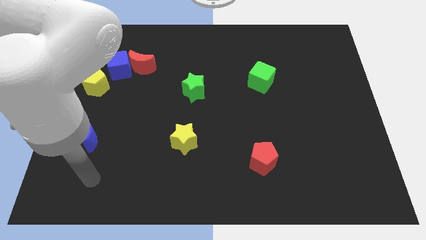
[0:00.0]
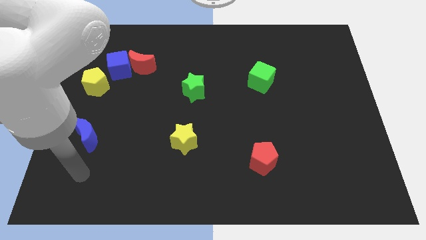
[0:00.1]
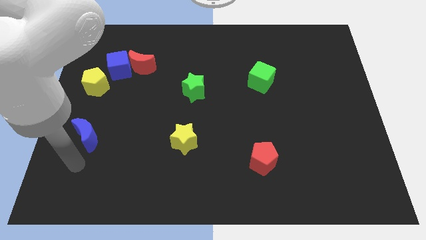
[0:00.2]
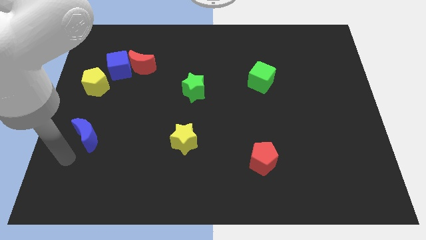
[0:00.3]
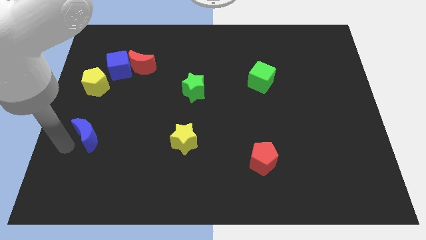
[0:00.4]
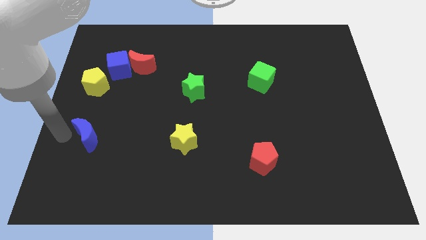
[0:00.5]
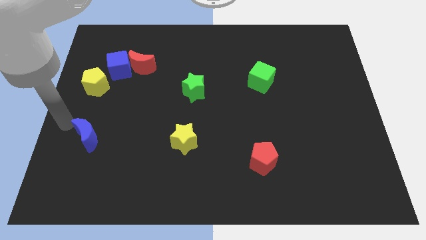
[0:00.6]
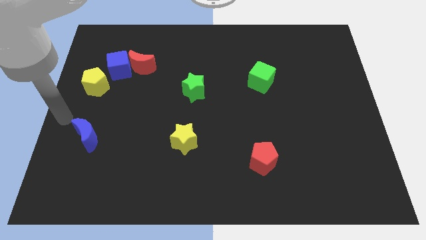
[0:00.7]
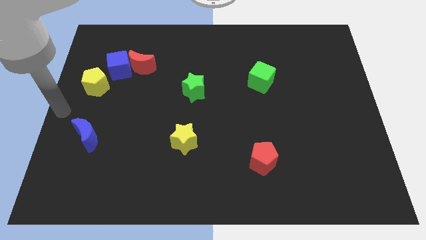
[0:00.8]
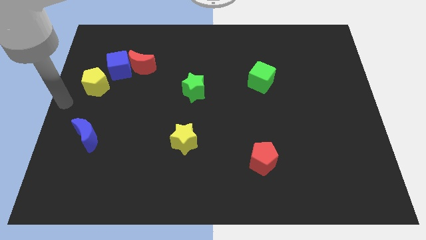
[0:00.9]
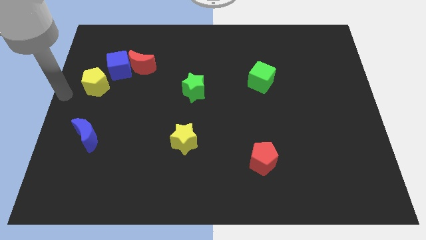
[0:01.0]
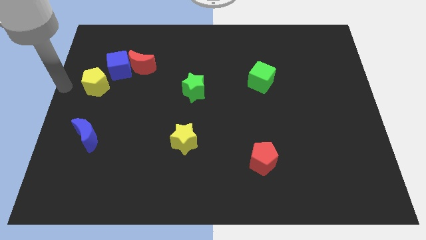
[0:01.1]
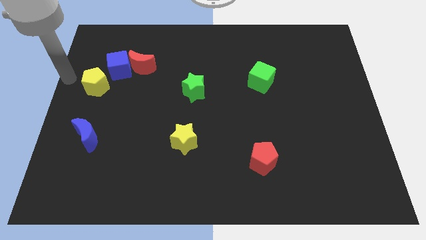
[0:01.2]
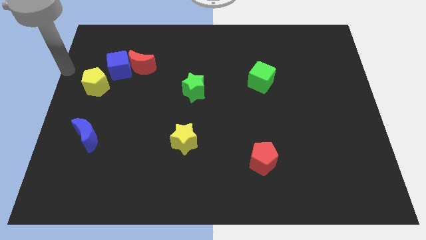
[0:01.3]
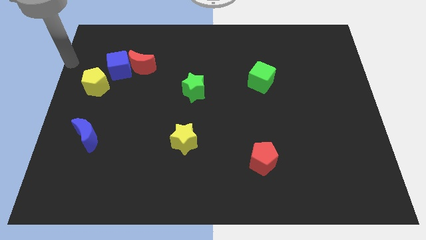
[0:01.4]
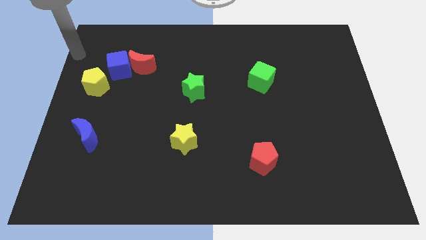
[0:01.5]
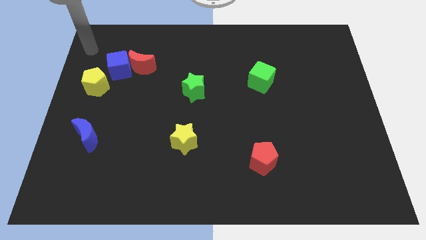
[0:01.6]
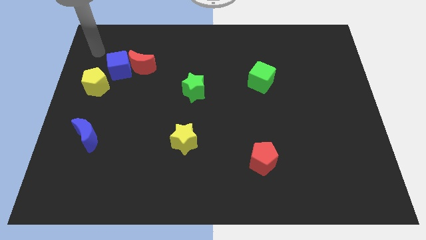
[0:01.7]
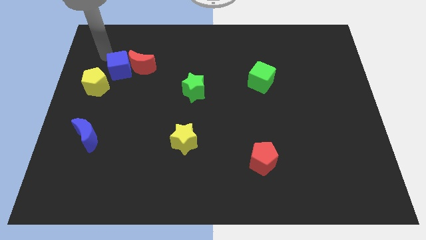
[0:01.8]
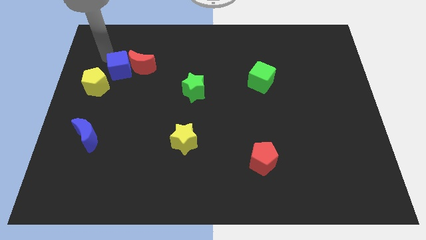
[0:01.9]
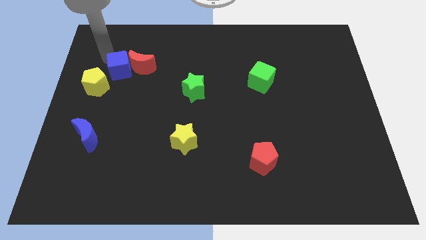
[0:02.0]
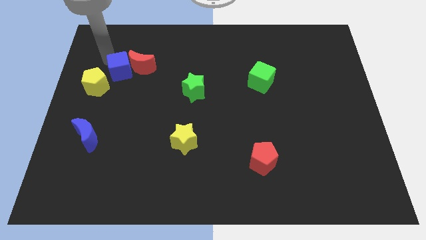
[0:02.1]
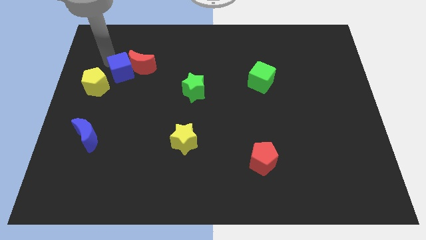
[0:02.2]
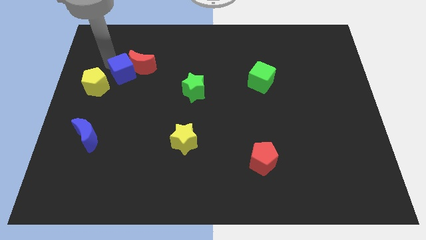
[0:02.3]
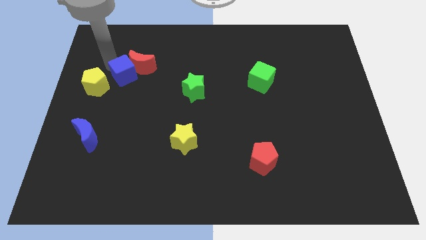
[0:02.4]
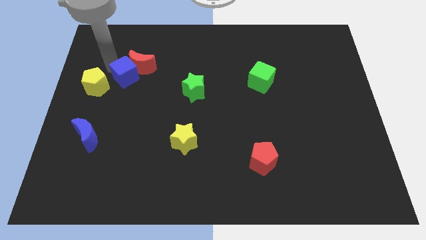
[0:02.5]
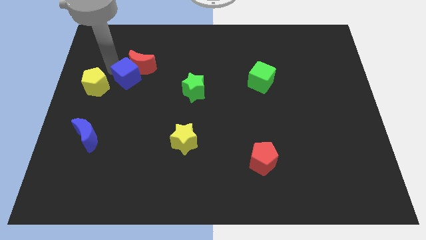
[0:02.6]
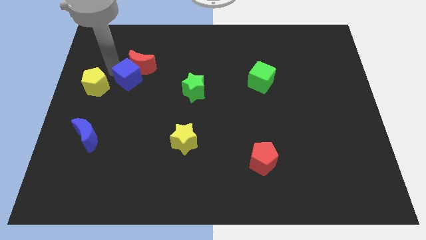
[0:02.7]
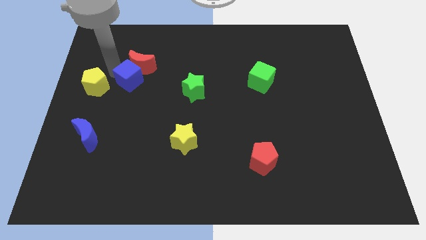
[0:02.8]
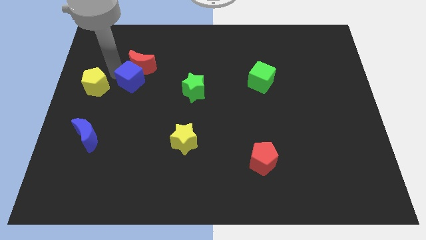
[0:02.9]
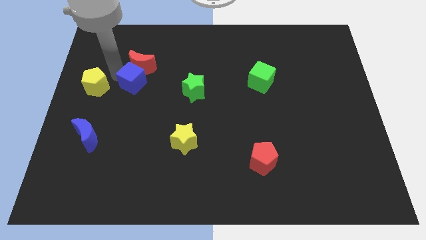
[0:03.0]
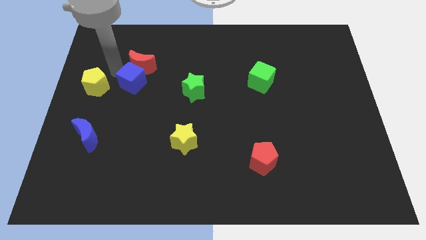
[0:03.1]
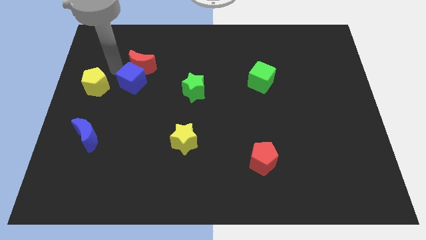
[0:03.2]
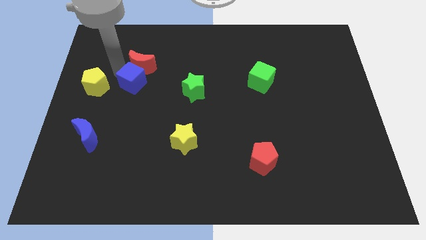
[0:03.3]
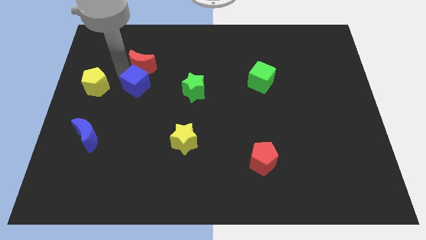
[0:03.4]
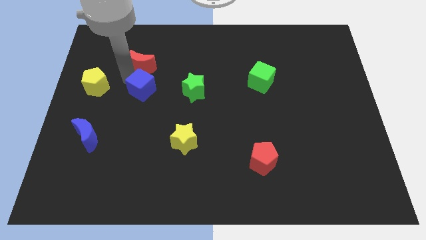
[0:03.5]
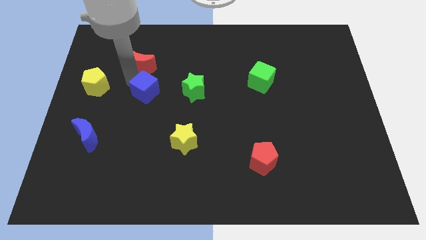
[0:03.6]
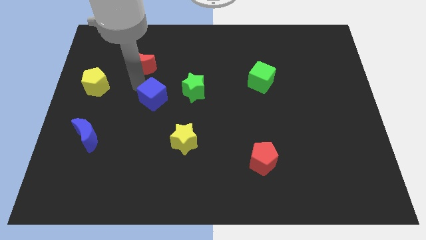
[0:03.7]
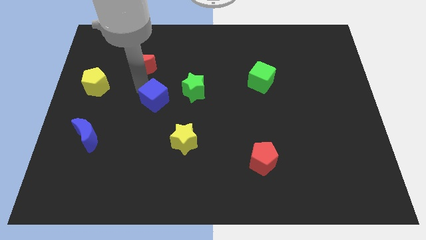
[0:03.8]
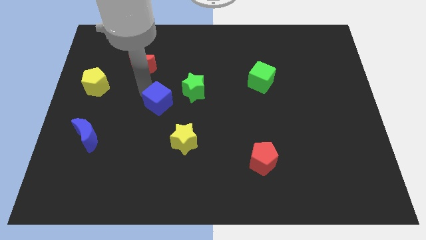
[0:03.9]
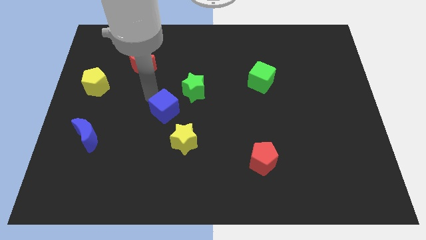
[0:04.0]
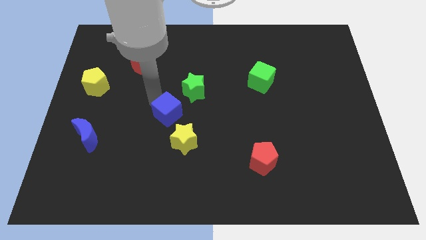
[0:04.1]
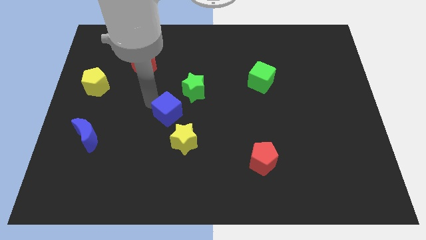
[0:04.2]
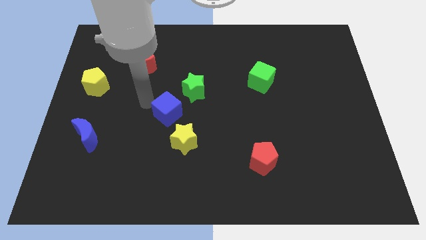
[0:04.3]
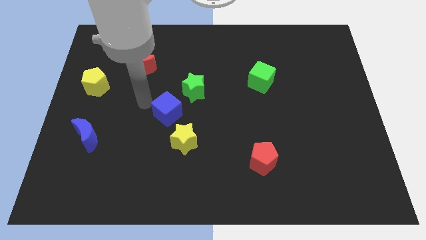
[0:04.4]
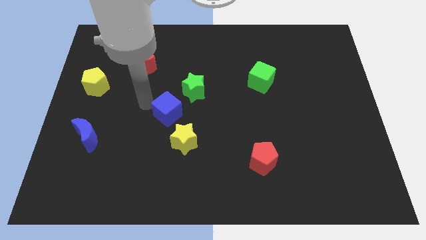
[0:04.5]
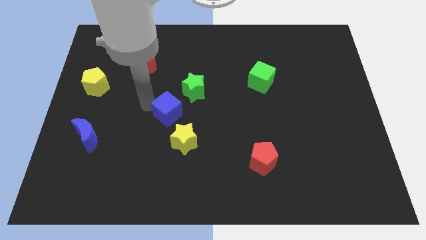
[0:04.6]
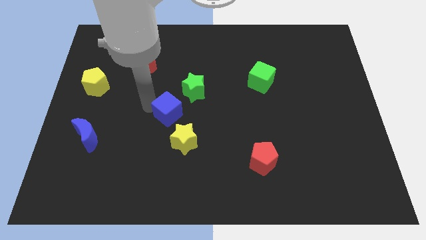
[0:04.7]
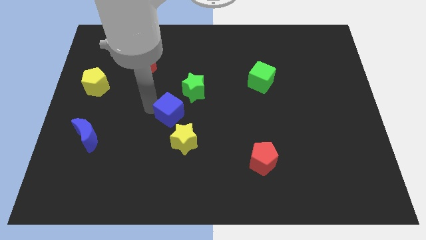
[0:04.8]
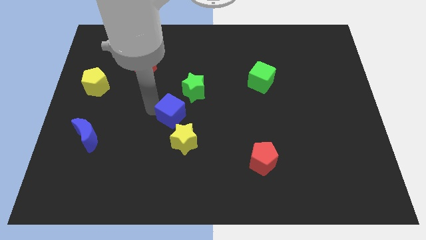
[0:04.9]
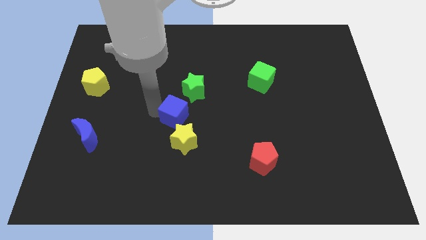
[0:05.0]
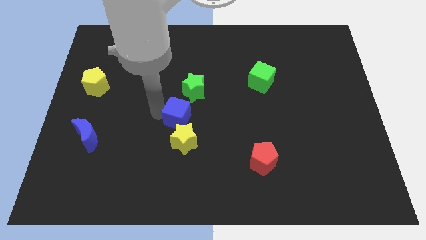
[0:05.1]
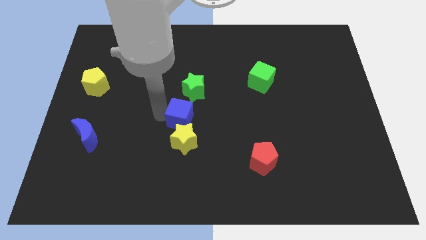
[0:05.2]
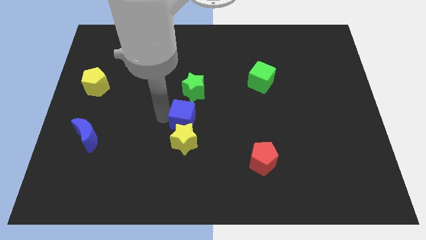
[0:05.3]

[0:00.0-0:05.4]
slide the blue cube to the top right side of the yellow star

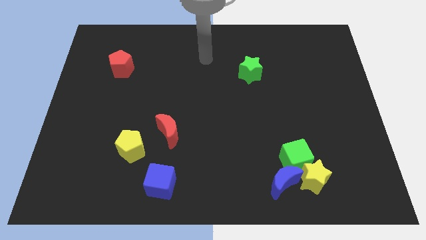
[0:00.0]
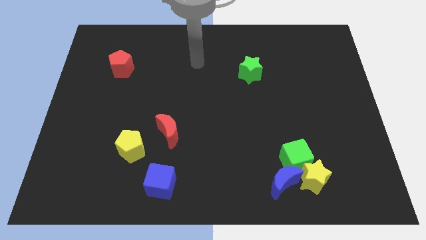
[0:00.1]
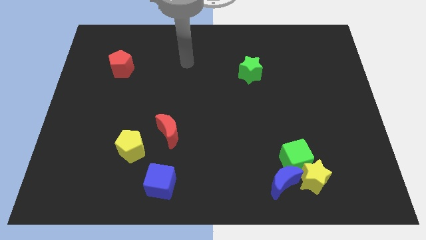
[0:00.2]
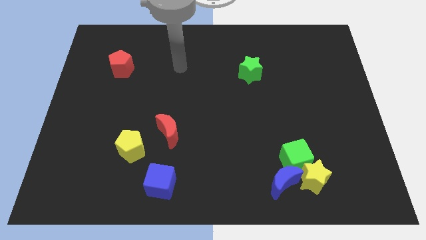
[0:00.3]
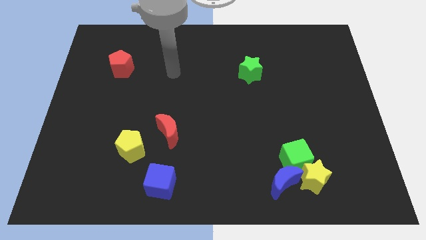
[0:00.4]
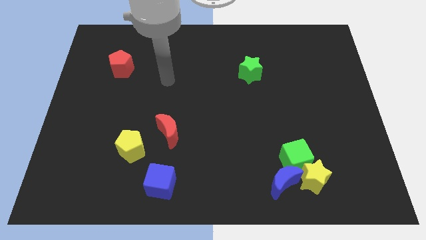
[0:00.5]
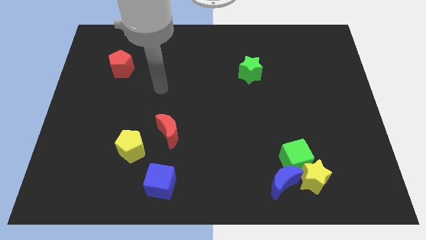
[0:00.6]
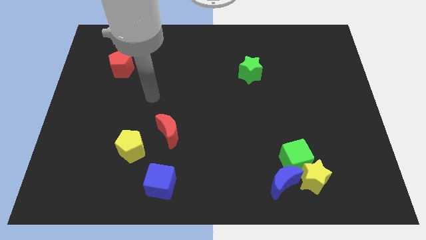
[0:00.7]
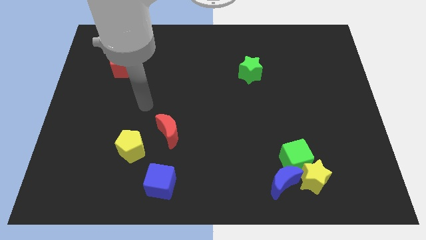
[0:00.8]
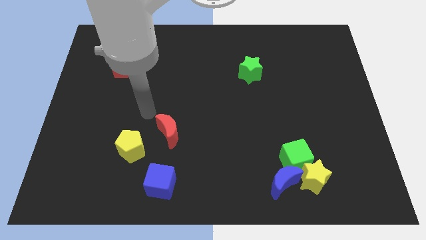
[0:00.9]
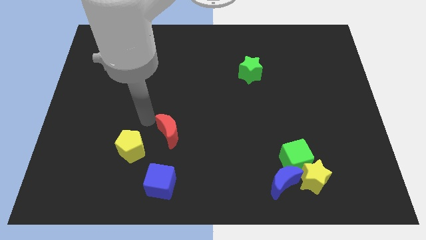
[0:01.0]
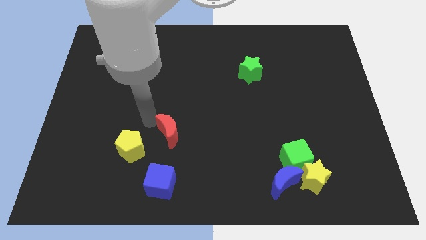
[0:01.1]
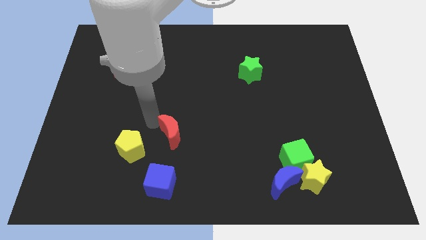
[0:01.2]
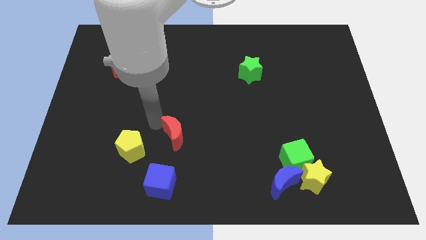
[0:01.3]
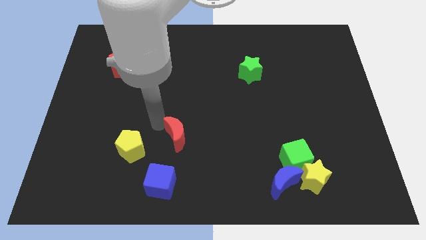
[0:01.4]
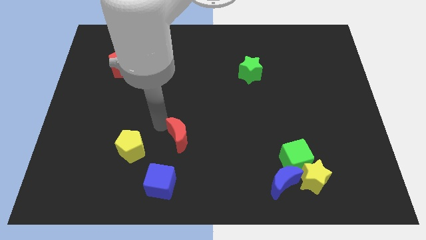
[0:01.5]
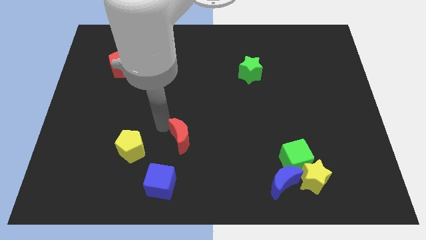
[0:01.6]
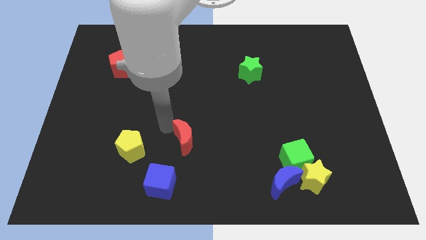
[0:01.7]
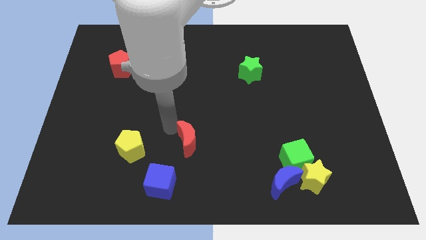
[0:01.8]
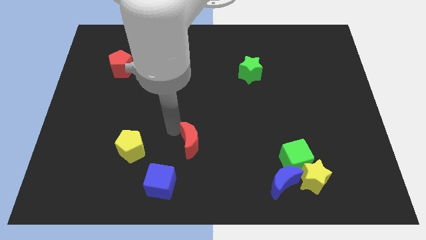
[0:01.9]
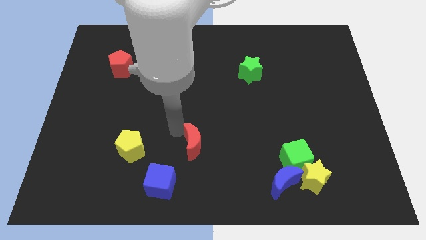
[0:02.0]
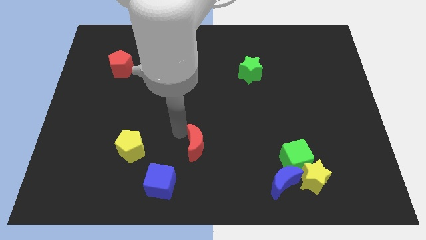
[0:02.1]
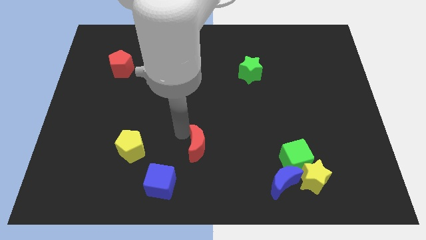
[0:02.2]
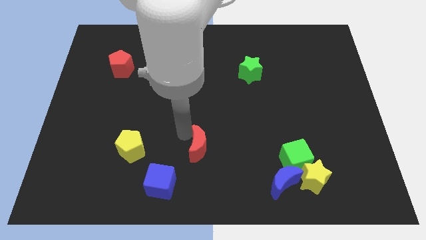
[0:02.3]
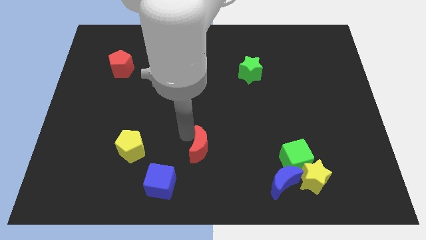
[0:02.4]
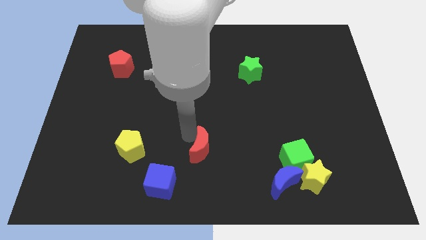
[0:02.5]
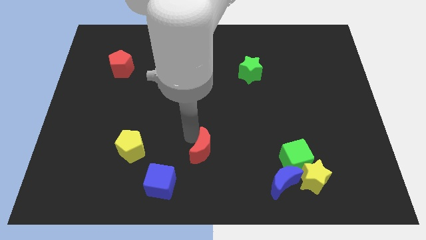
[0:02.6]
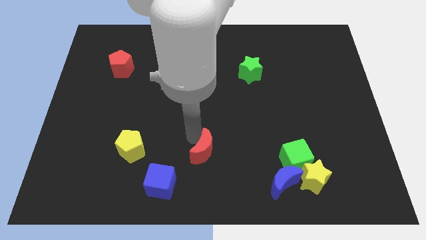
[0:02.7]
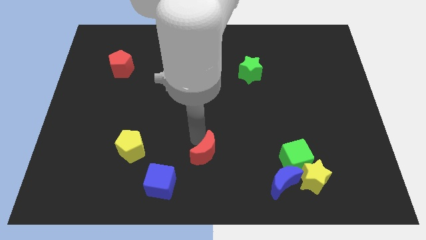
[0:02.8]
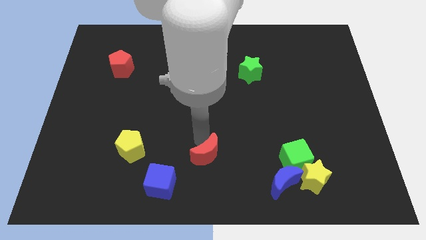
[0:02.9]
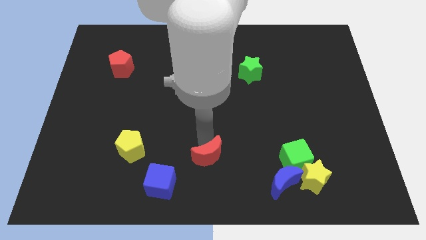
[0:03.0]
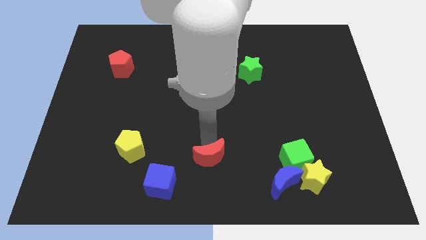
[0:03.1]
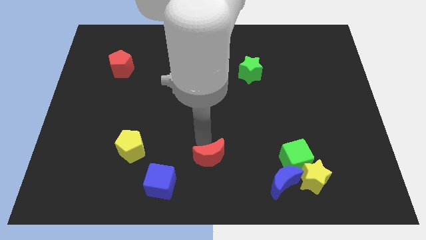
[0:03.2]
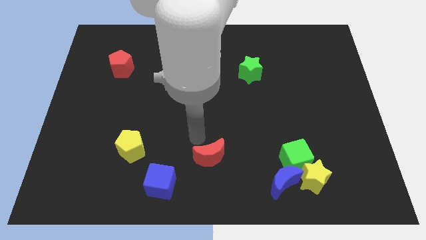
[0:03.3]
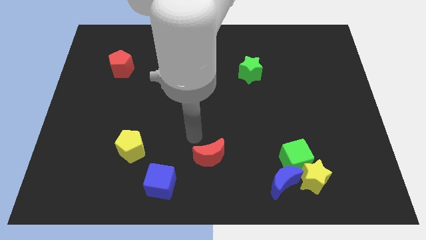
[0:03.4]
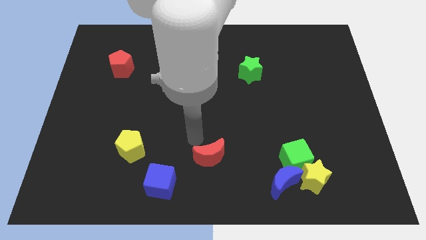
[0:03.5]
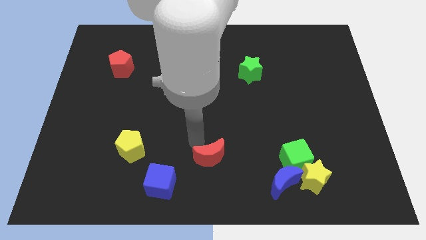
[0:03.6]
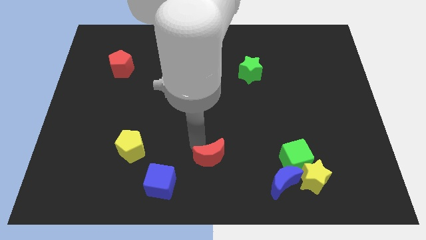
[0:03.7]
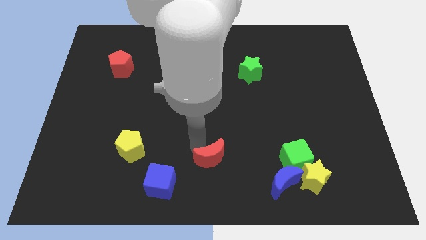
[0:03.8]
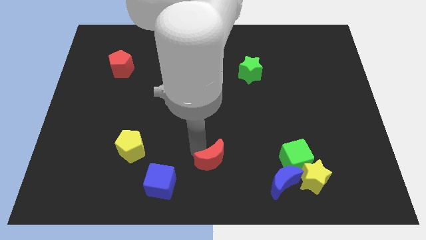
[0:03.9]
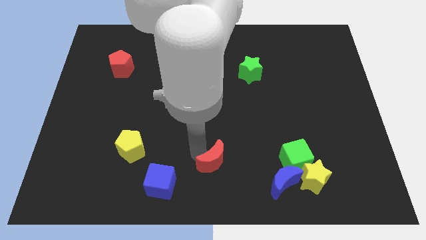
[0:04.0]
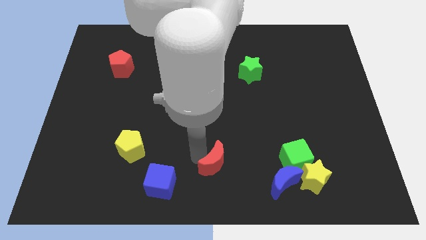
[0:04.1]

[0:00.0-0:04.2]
slide the red moon left of the blue moon
